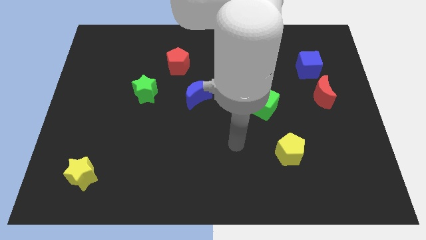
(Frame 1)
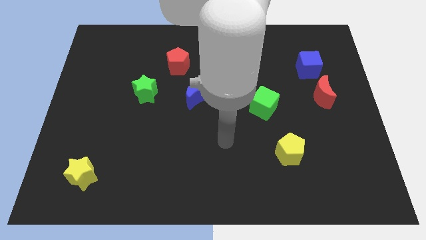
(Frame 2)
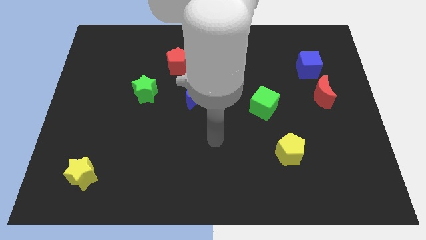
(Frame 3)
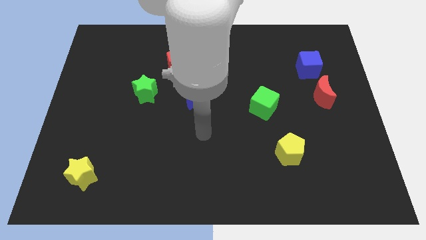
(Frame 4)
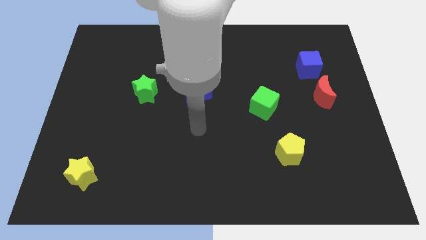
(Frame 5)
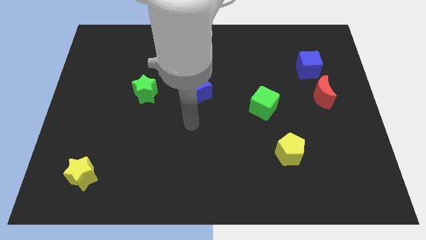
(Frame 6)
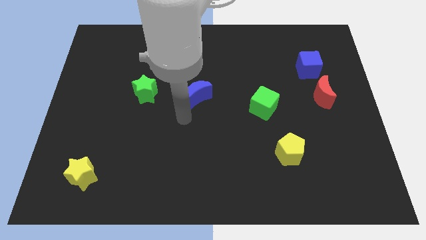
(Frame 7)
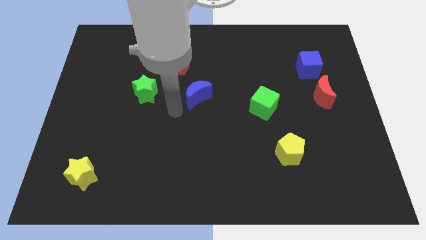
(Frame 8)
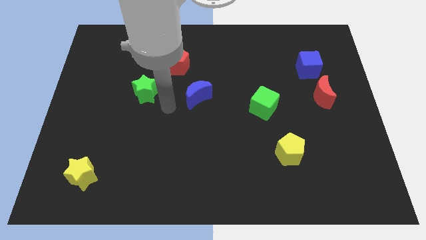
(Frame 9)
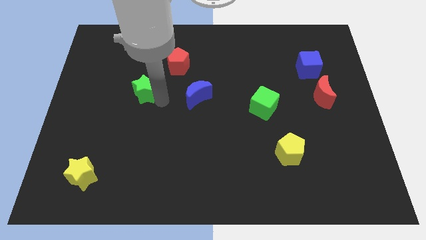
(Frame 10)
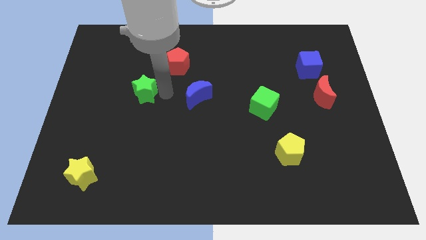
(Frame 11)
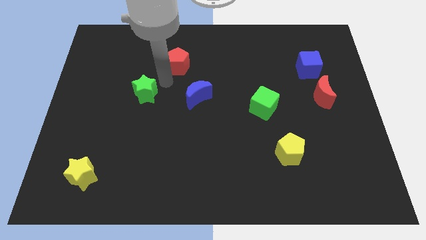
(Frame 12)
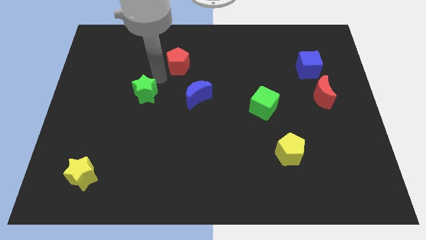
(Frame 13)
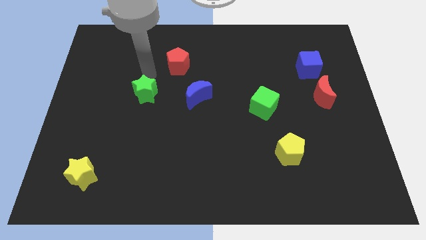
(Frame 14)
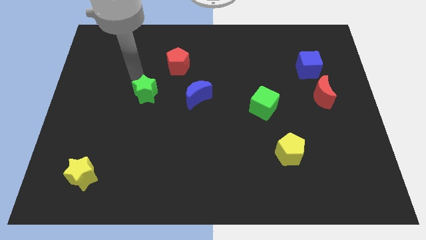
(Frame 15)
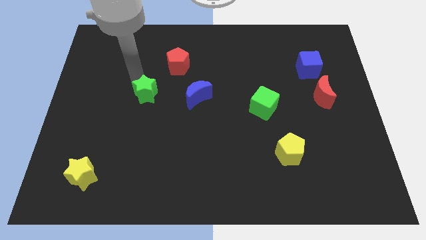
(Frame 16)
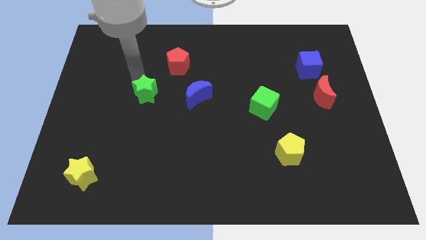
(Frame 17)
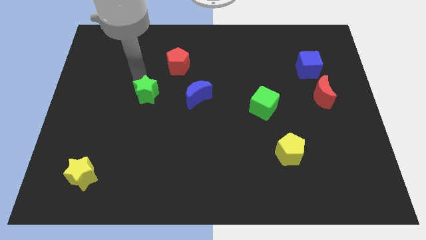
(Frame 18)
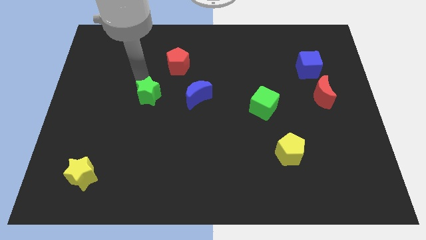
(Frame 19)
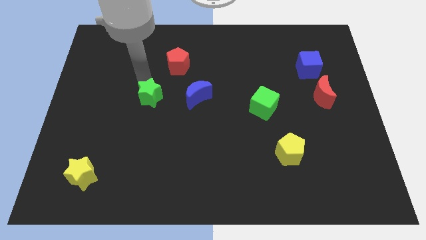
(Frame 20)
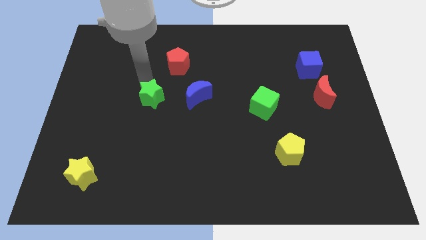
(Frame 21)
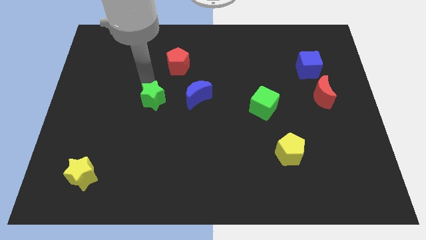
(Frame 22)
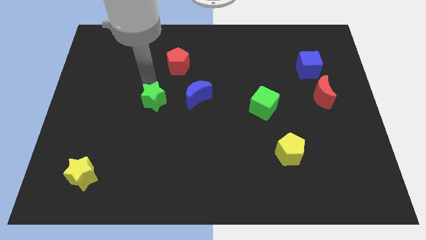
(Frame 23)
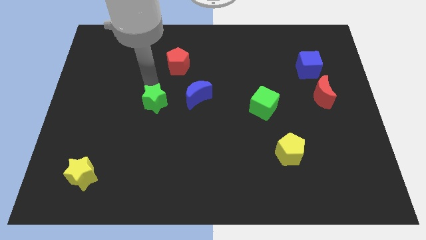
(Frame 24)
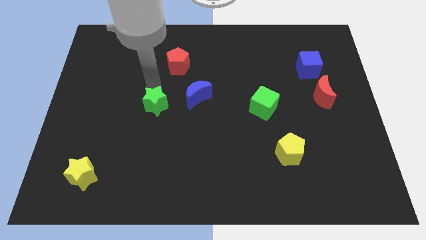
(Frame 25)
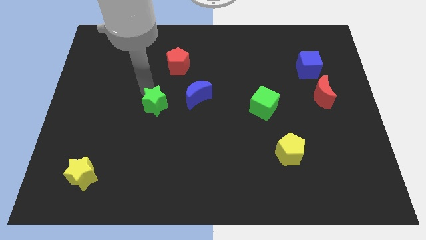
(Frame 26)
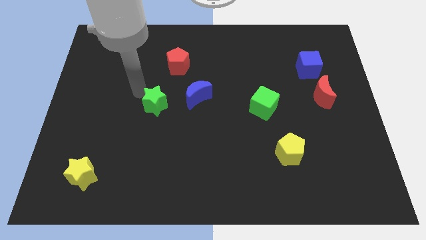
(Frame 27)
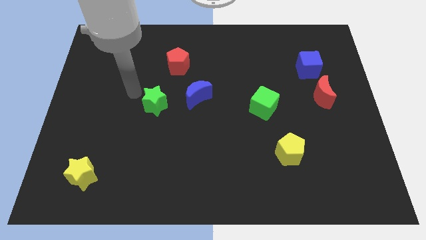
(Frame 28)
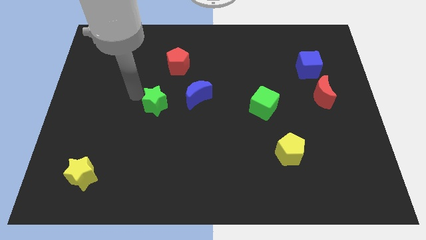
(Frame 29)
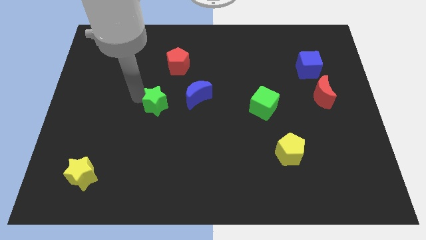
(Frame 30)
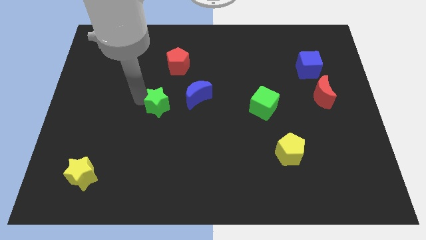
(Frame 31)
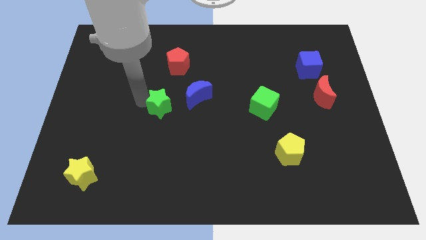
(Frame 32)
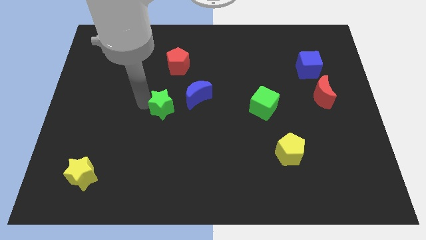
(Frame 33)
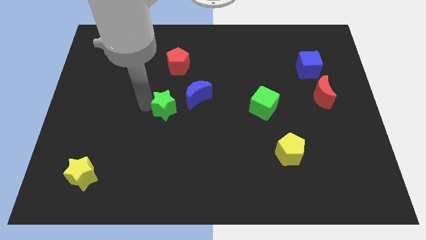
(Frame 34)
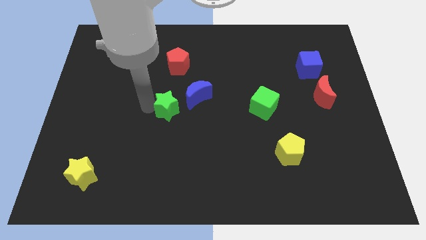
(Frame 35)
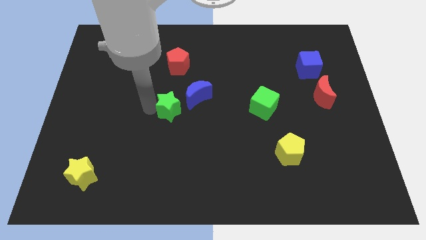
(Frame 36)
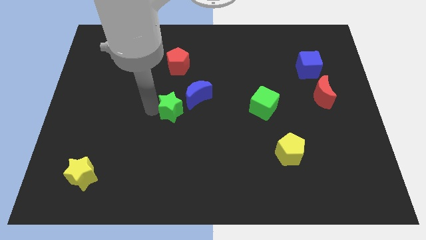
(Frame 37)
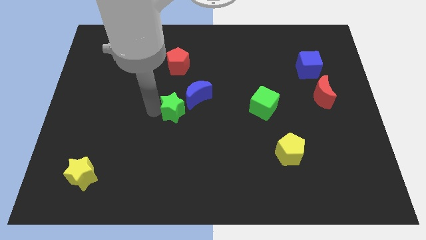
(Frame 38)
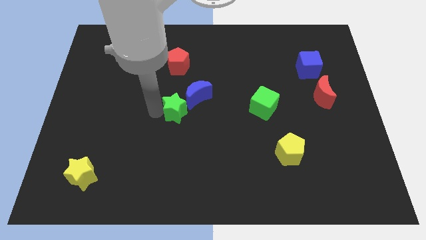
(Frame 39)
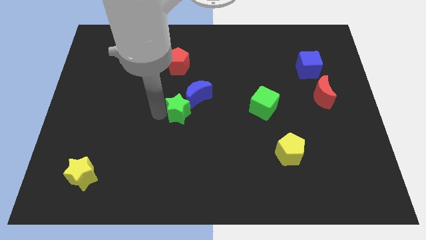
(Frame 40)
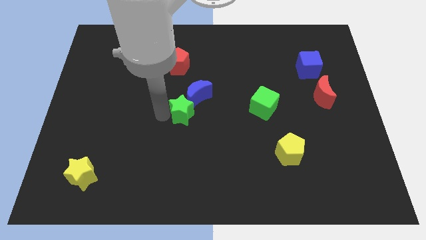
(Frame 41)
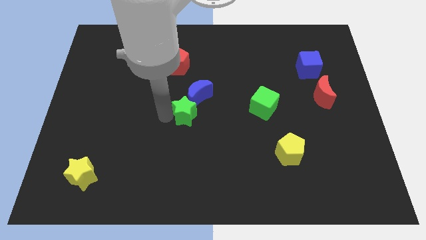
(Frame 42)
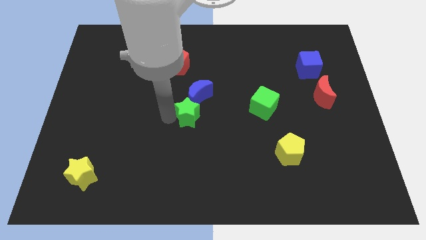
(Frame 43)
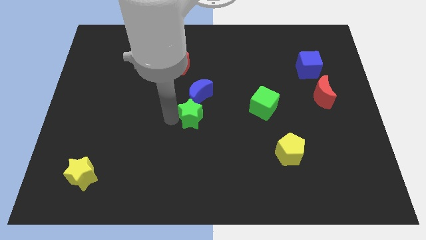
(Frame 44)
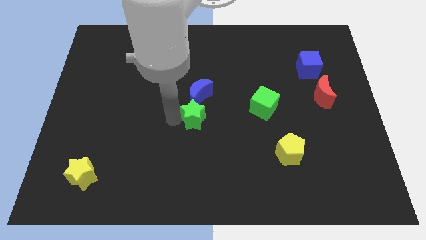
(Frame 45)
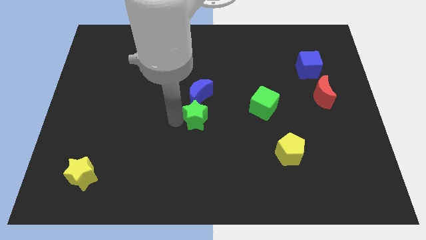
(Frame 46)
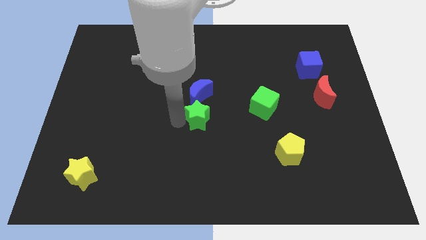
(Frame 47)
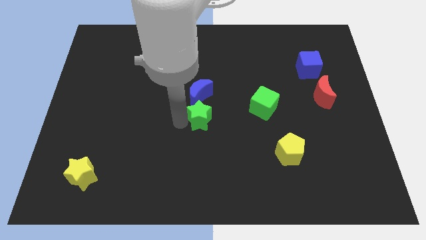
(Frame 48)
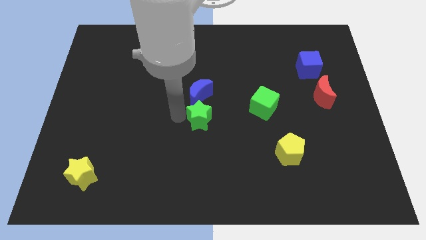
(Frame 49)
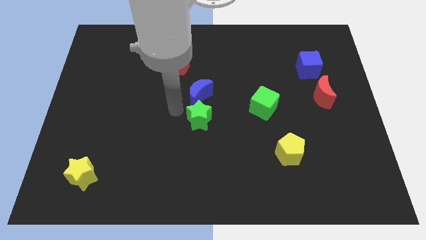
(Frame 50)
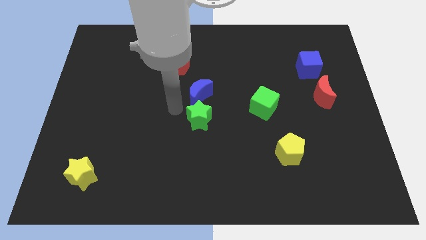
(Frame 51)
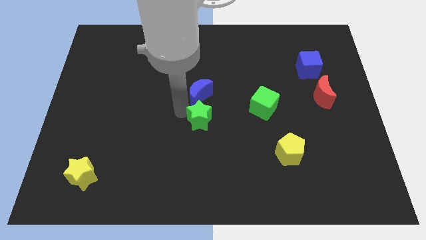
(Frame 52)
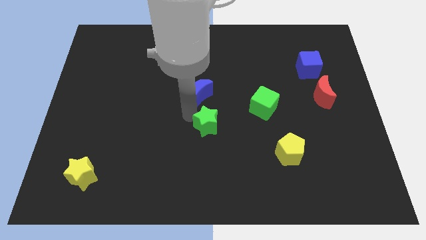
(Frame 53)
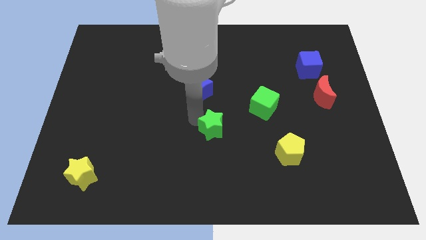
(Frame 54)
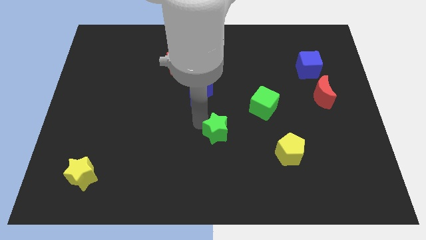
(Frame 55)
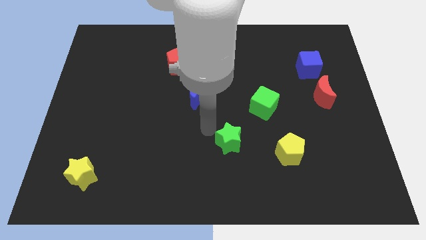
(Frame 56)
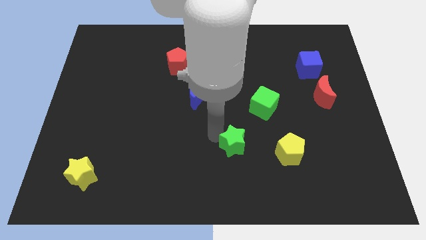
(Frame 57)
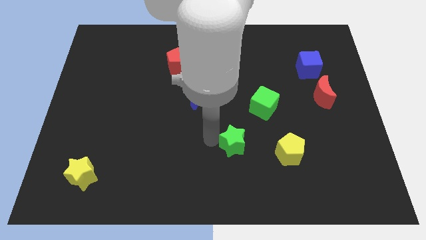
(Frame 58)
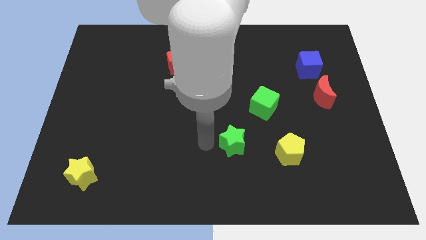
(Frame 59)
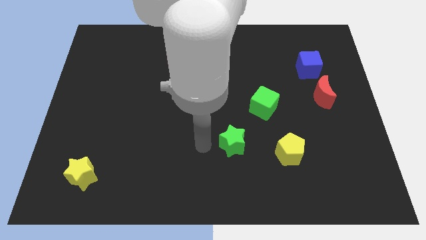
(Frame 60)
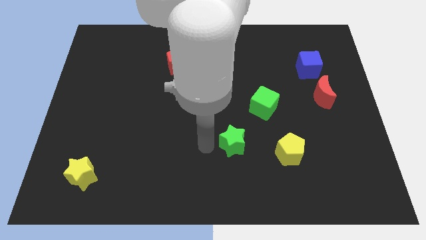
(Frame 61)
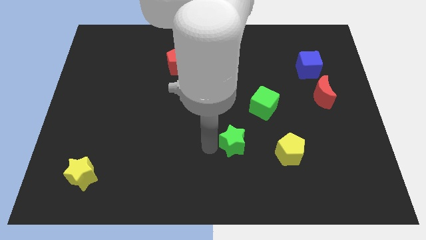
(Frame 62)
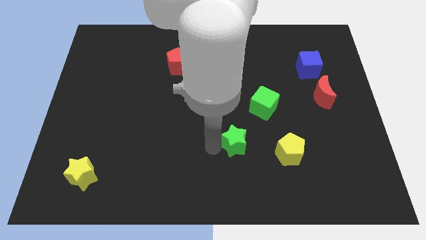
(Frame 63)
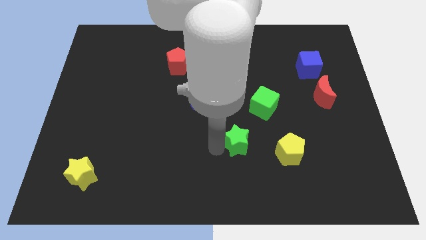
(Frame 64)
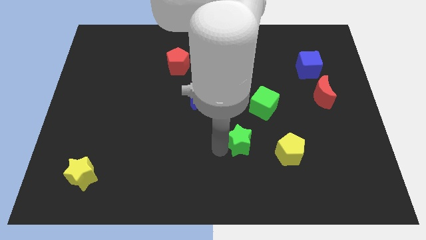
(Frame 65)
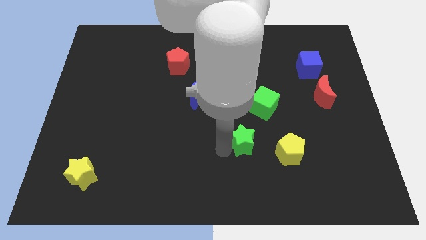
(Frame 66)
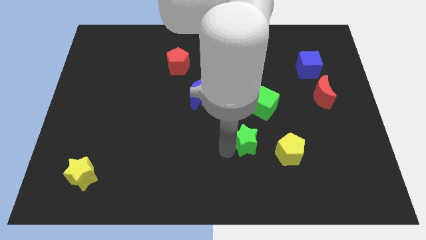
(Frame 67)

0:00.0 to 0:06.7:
move the green star to the bottom side of the green cube
